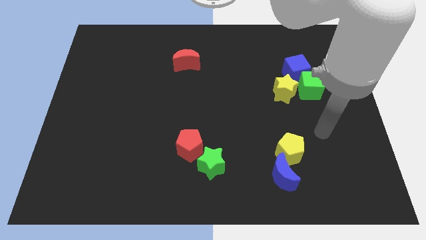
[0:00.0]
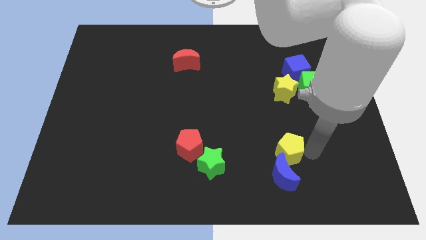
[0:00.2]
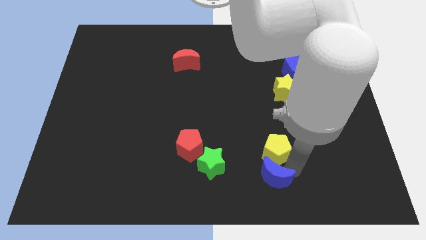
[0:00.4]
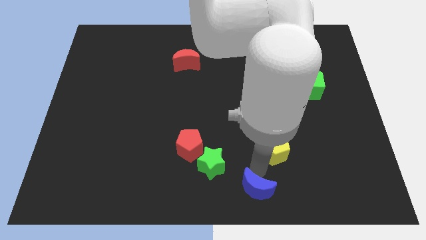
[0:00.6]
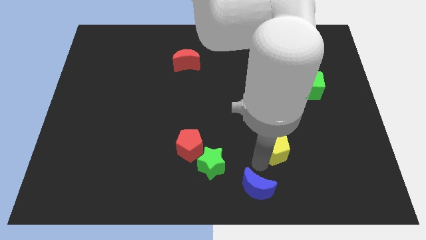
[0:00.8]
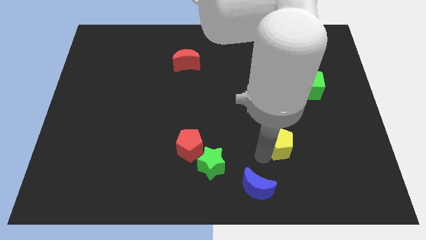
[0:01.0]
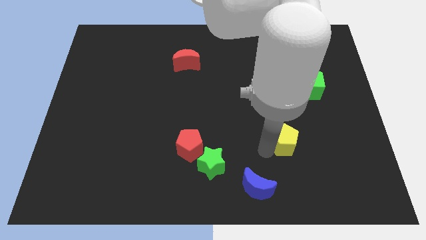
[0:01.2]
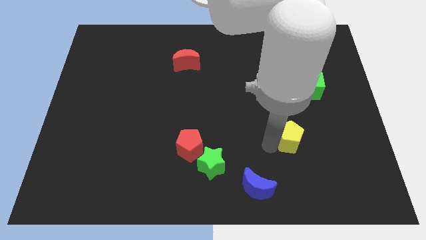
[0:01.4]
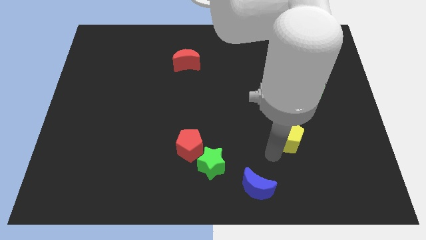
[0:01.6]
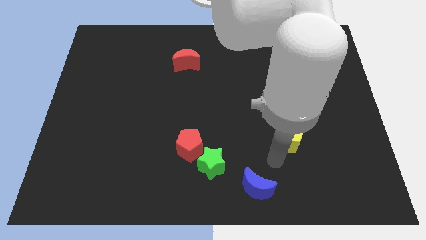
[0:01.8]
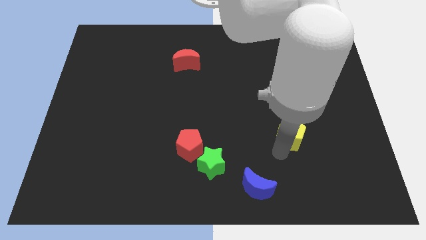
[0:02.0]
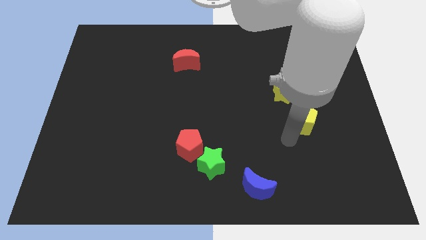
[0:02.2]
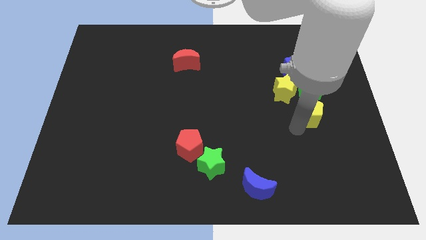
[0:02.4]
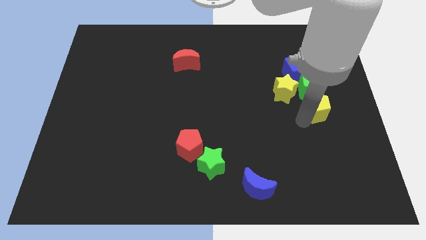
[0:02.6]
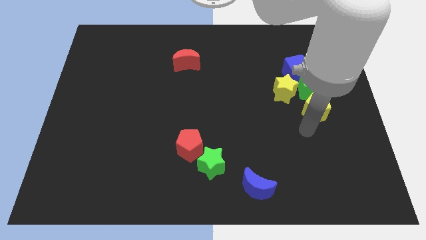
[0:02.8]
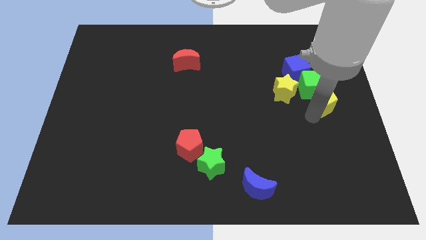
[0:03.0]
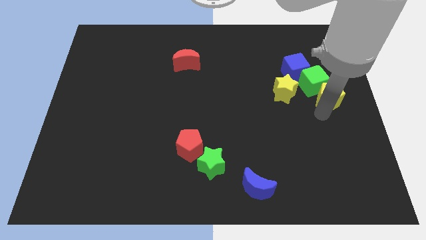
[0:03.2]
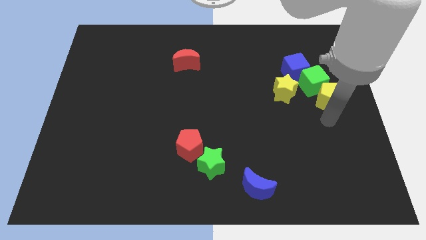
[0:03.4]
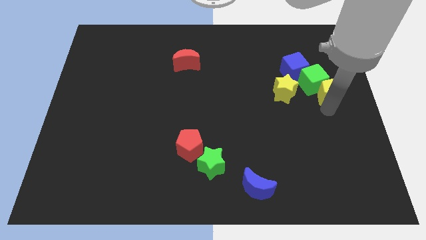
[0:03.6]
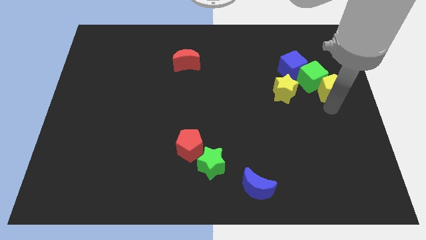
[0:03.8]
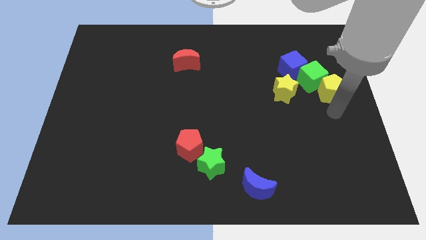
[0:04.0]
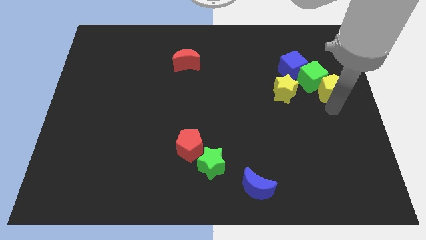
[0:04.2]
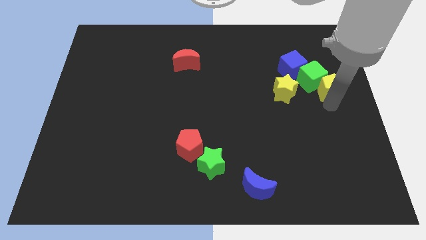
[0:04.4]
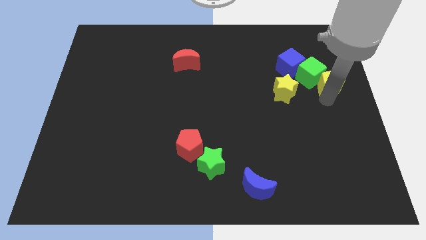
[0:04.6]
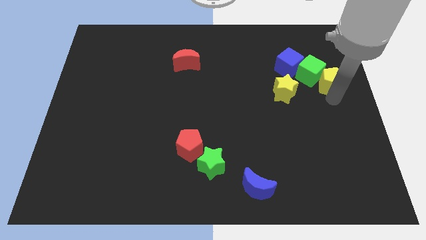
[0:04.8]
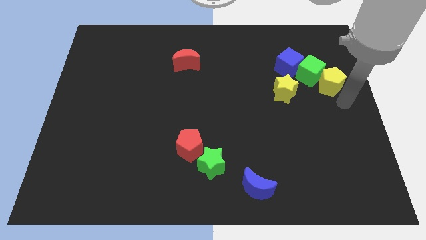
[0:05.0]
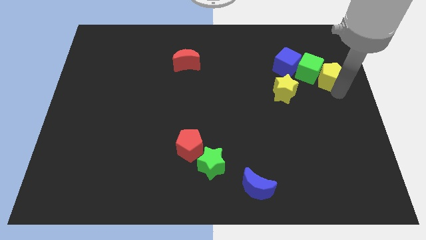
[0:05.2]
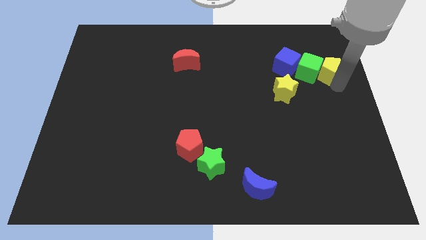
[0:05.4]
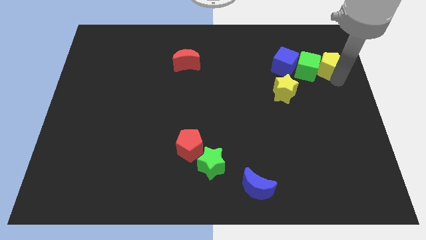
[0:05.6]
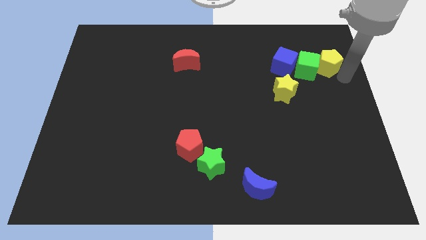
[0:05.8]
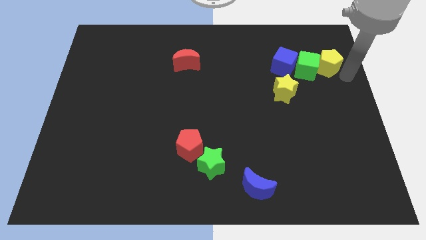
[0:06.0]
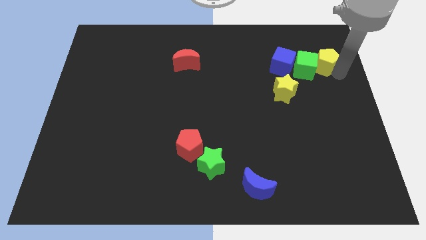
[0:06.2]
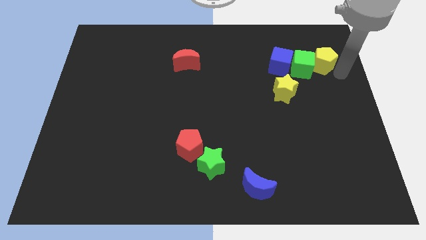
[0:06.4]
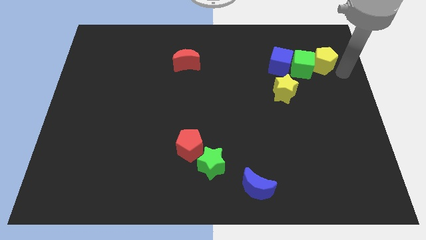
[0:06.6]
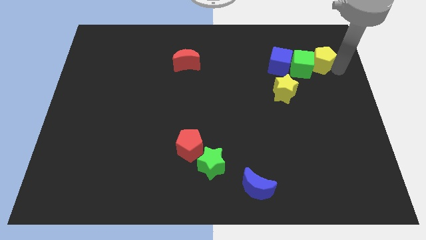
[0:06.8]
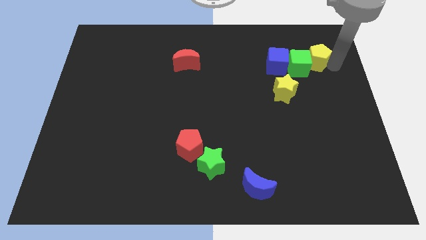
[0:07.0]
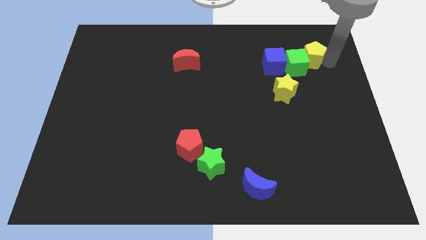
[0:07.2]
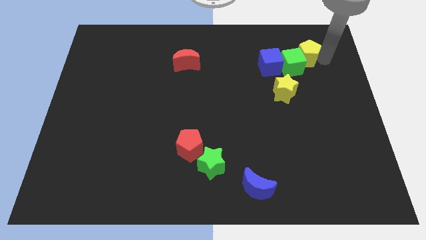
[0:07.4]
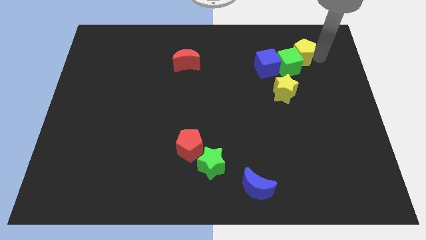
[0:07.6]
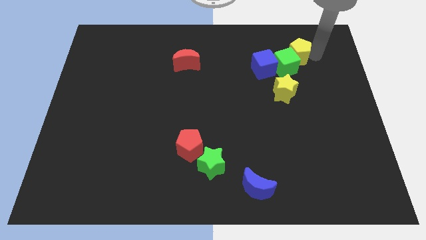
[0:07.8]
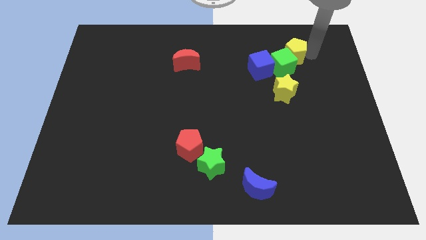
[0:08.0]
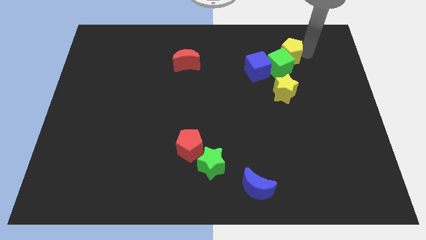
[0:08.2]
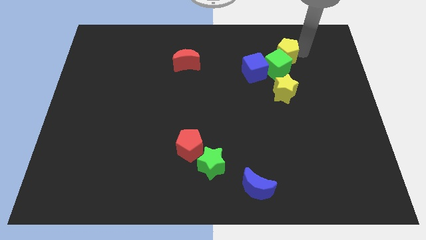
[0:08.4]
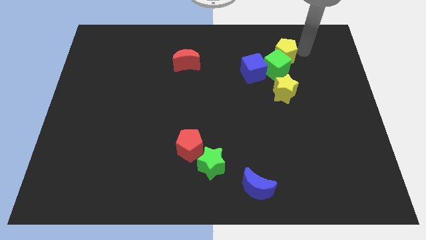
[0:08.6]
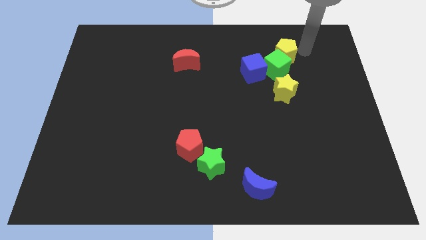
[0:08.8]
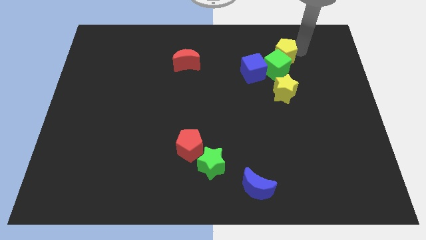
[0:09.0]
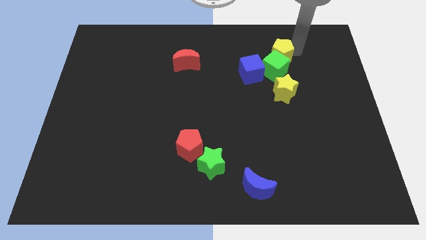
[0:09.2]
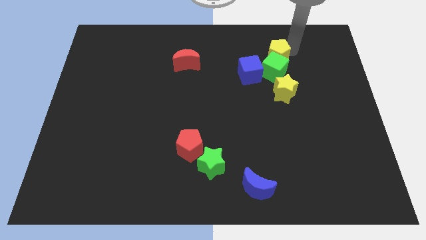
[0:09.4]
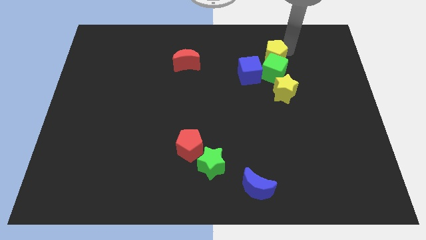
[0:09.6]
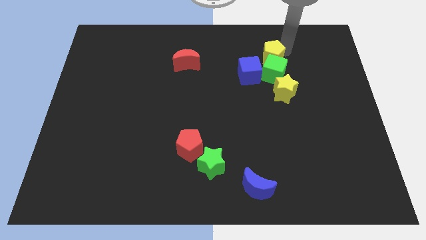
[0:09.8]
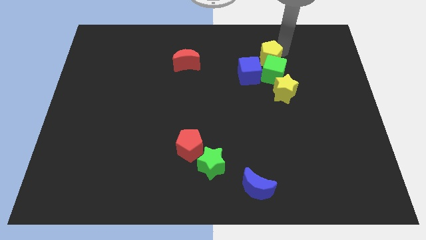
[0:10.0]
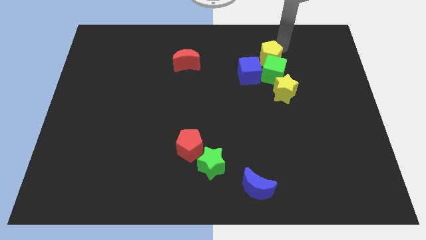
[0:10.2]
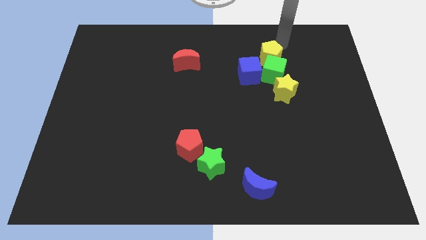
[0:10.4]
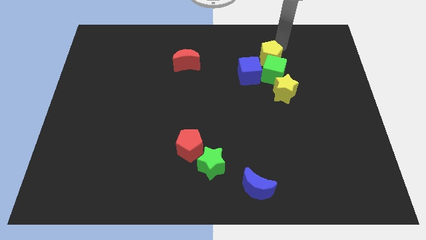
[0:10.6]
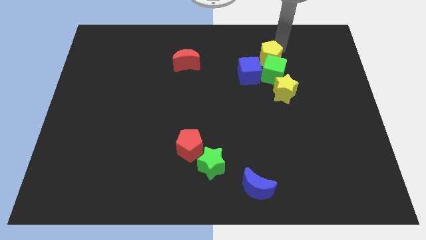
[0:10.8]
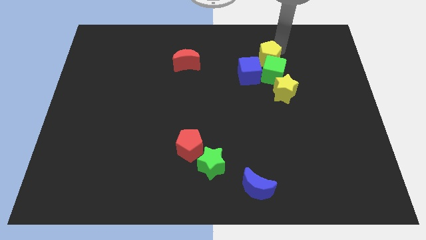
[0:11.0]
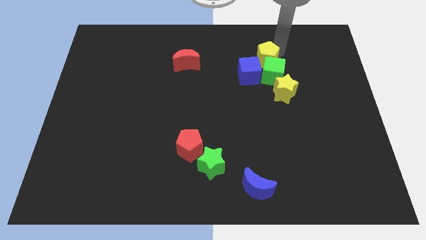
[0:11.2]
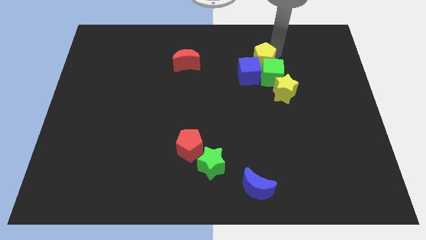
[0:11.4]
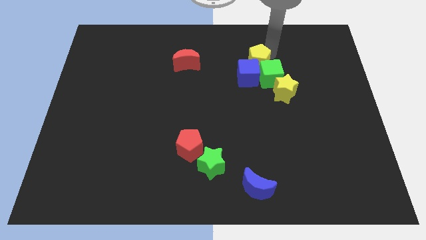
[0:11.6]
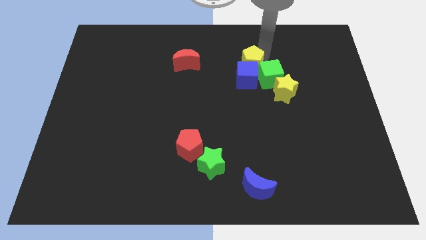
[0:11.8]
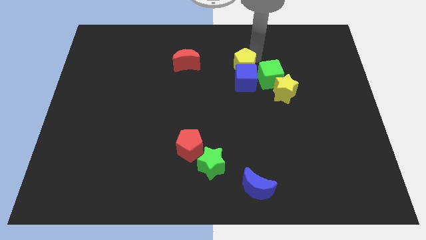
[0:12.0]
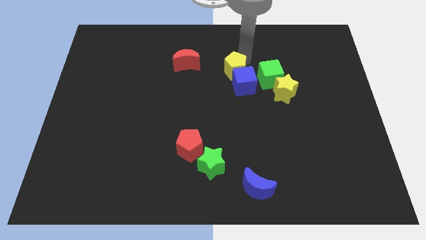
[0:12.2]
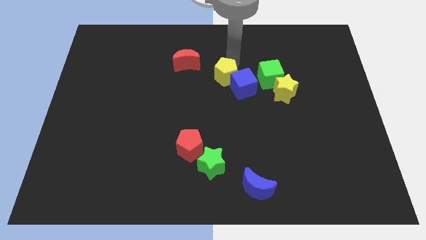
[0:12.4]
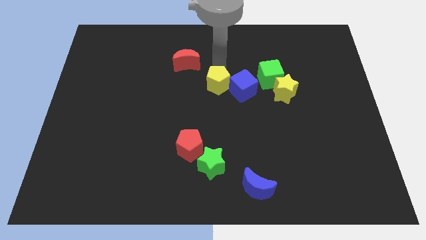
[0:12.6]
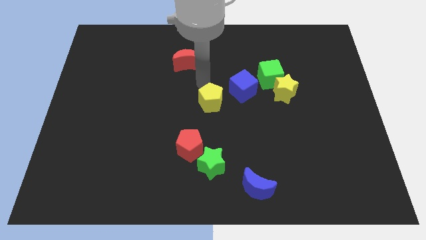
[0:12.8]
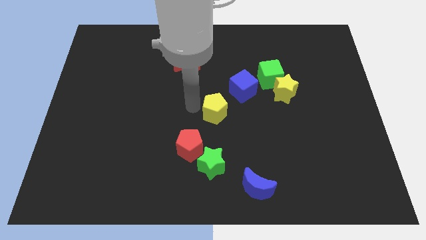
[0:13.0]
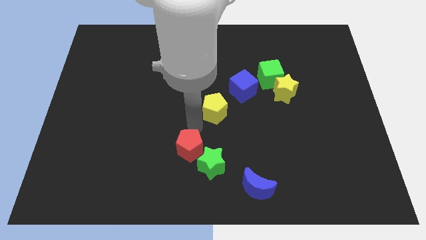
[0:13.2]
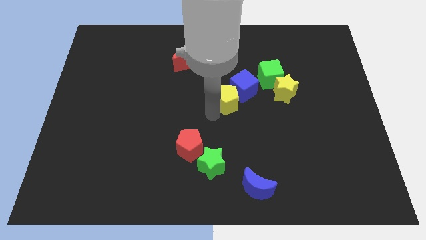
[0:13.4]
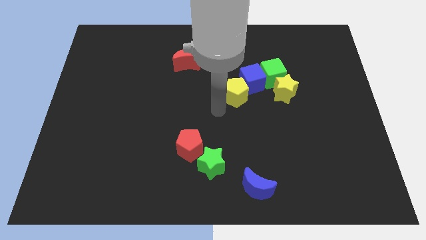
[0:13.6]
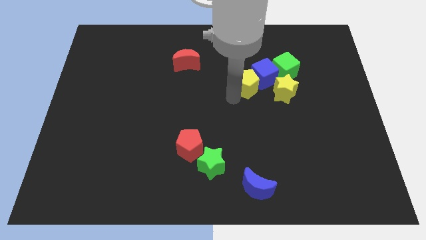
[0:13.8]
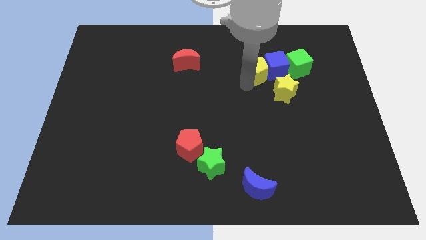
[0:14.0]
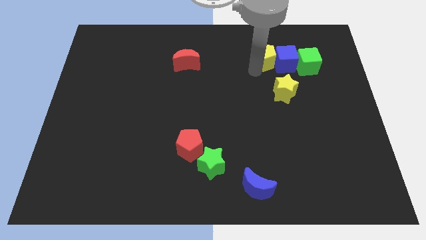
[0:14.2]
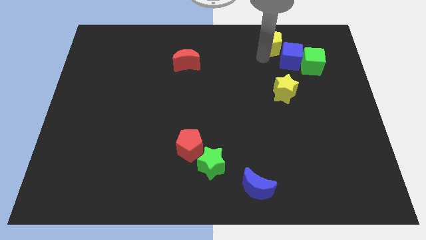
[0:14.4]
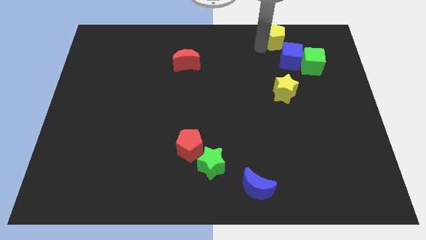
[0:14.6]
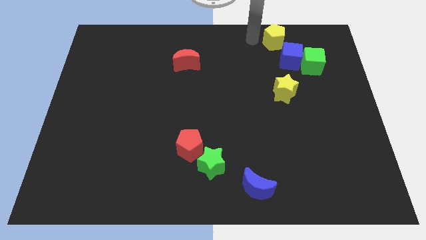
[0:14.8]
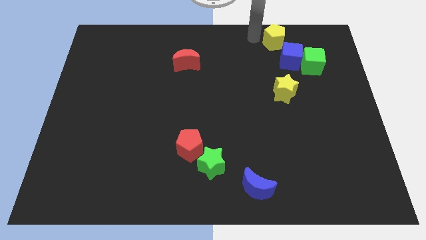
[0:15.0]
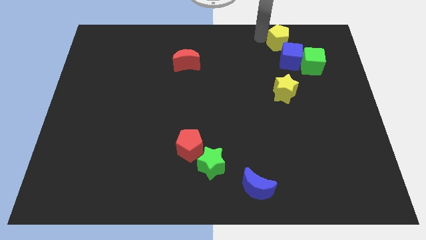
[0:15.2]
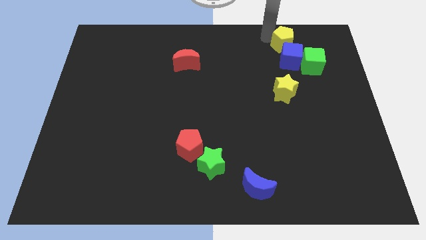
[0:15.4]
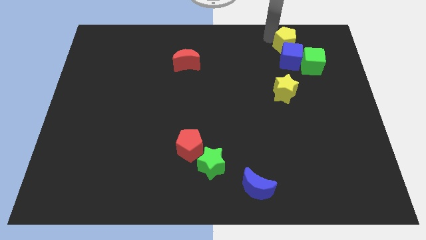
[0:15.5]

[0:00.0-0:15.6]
slide the yellow pentagon to the top right side of the blue cube
